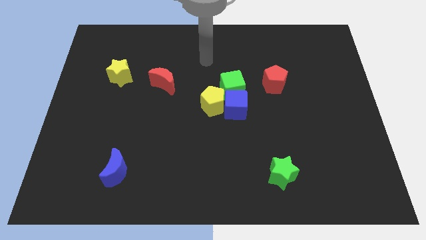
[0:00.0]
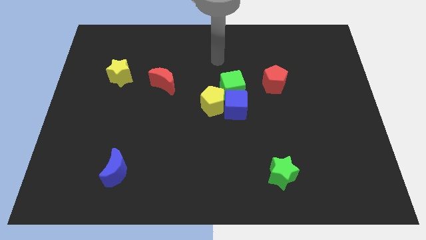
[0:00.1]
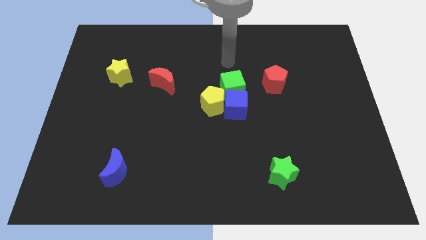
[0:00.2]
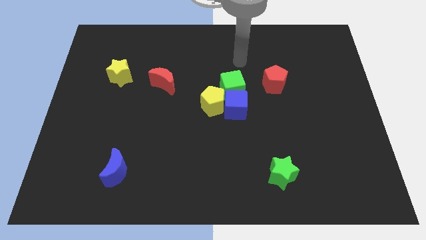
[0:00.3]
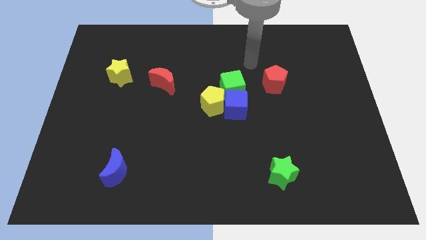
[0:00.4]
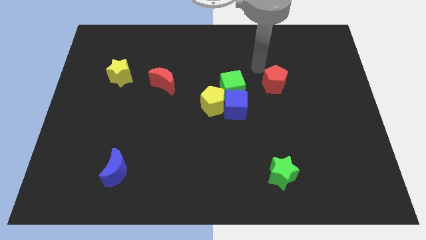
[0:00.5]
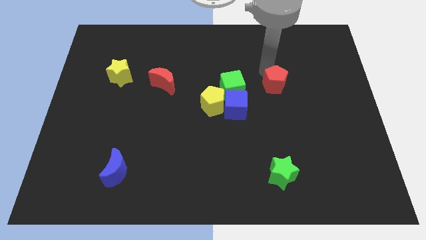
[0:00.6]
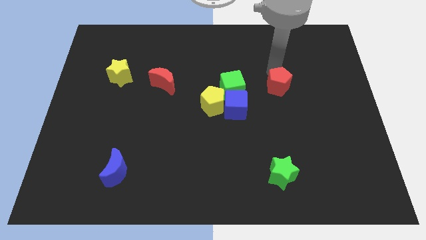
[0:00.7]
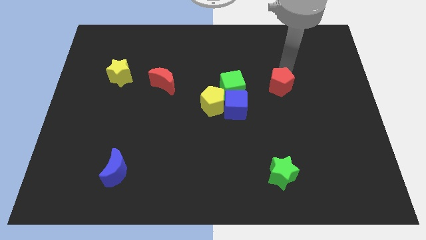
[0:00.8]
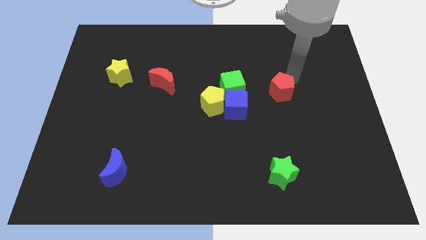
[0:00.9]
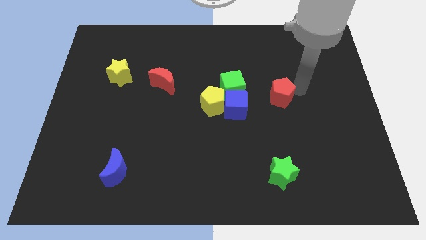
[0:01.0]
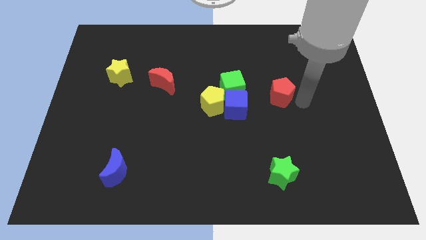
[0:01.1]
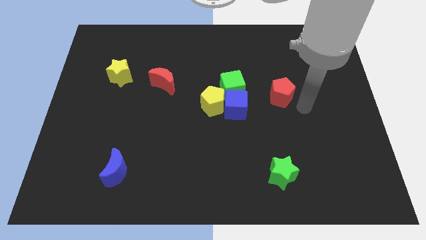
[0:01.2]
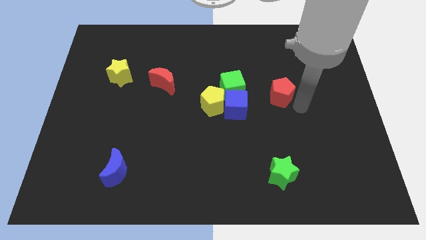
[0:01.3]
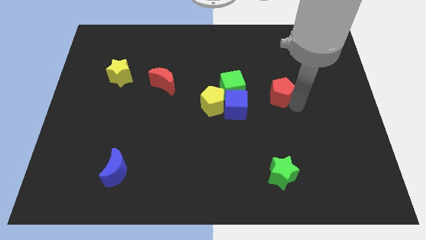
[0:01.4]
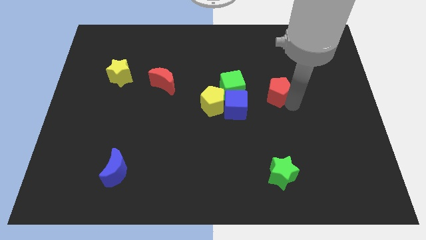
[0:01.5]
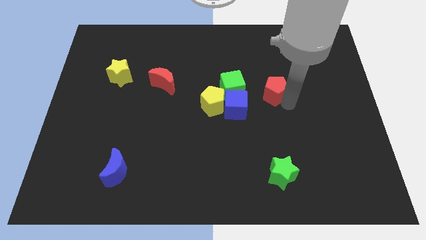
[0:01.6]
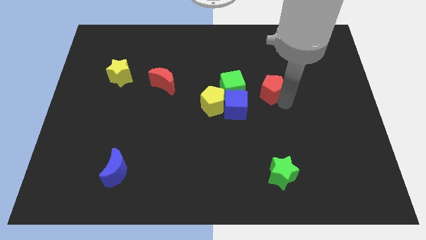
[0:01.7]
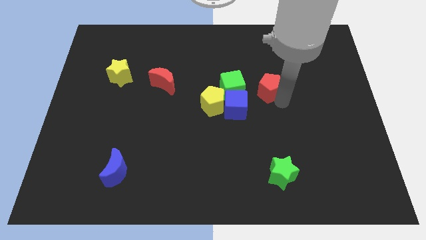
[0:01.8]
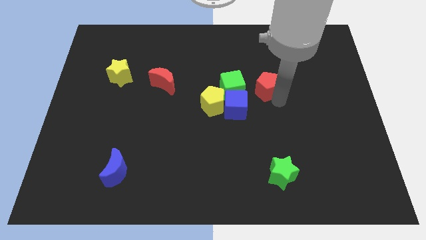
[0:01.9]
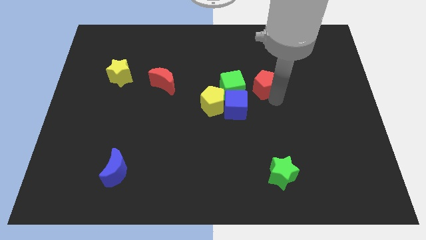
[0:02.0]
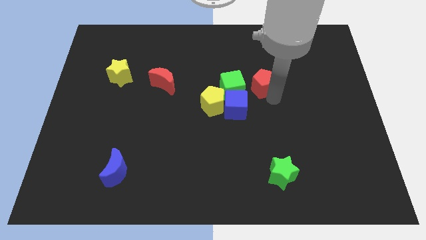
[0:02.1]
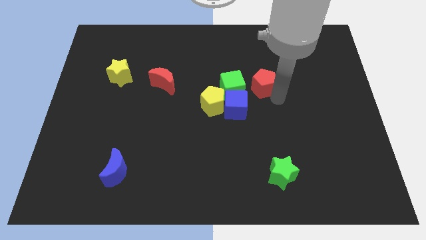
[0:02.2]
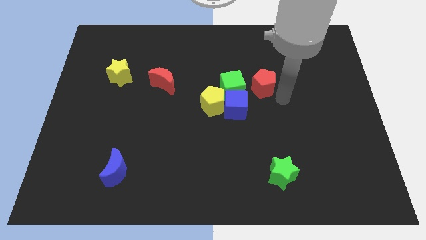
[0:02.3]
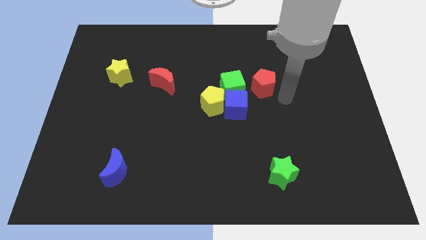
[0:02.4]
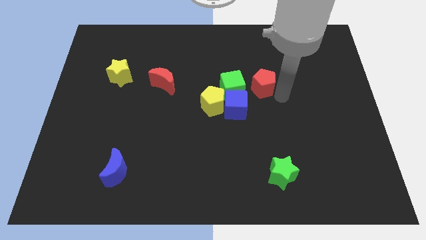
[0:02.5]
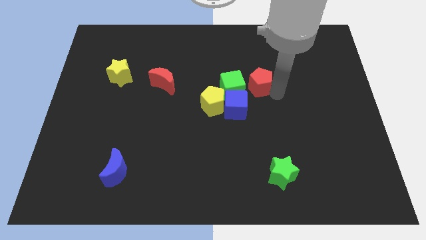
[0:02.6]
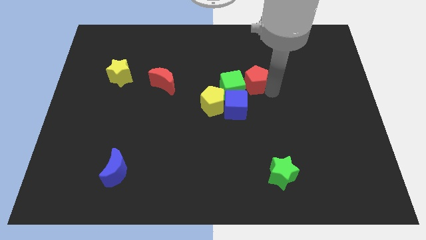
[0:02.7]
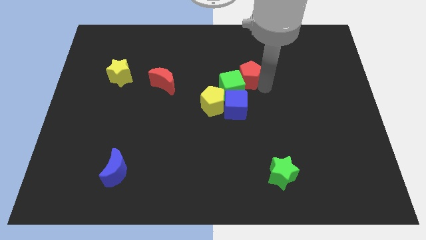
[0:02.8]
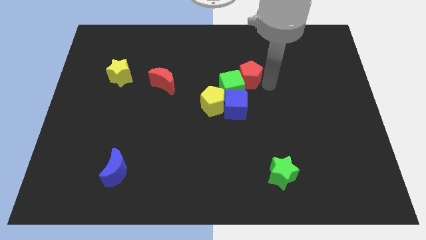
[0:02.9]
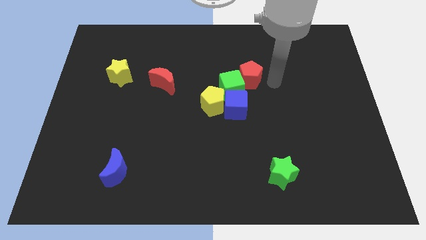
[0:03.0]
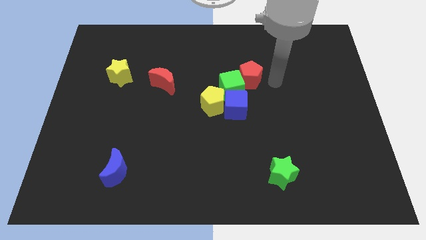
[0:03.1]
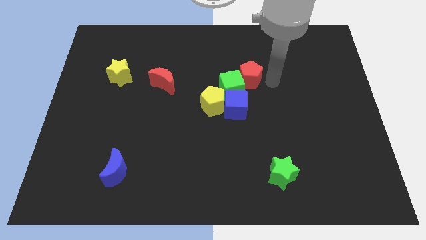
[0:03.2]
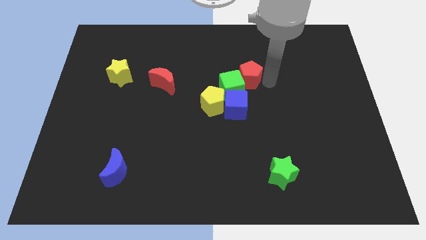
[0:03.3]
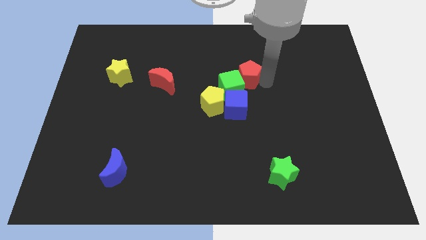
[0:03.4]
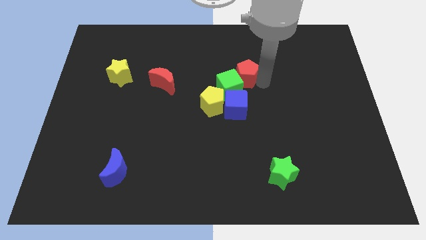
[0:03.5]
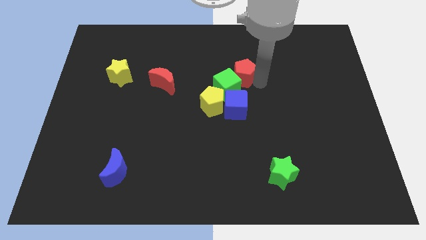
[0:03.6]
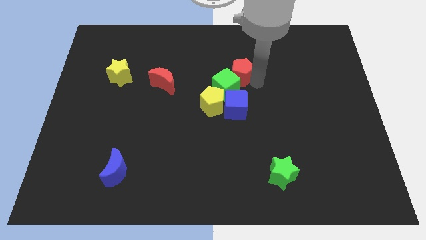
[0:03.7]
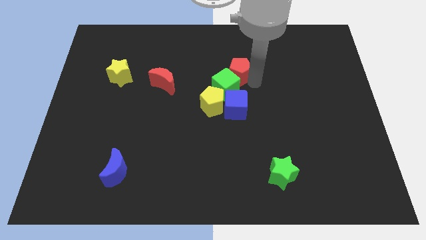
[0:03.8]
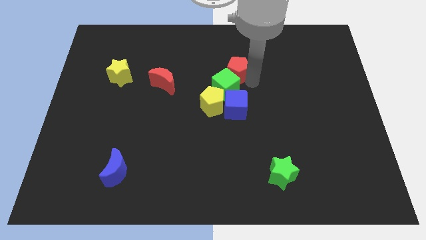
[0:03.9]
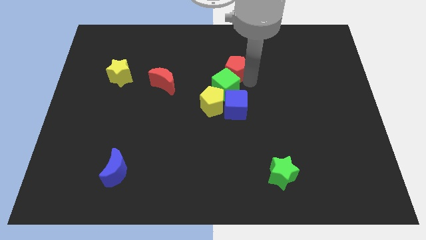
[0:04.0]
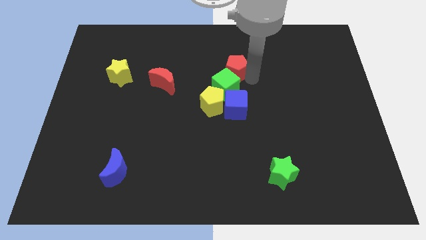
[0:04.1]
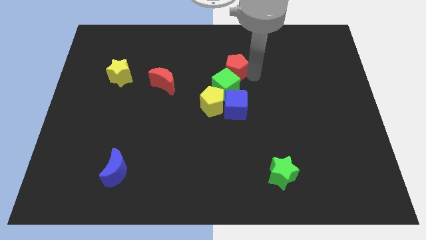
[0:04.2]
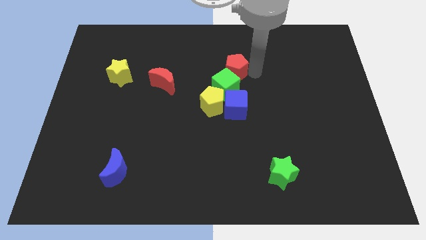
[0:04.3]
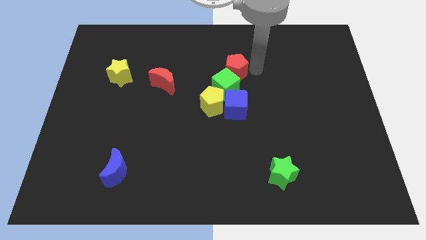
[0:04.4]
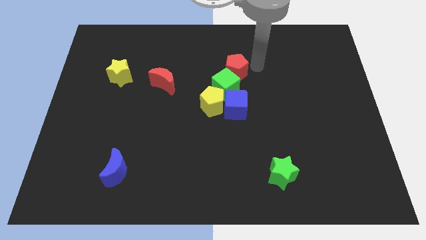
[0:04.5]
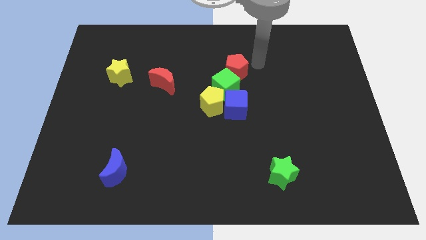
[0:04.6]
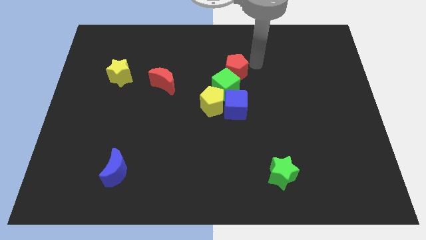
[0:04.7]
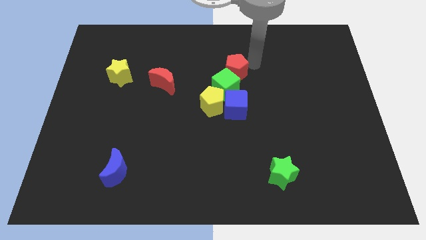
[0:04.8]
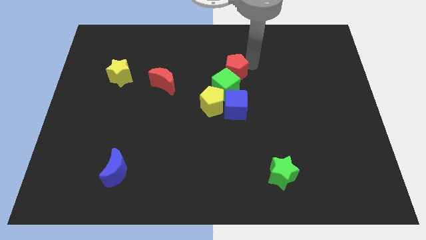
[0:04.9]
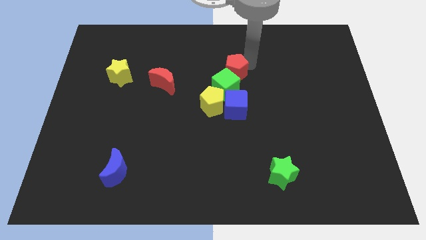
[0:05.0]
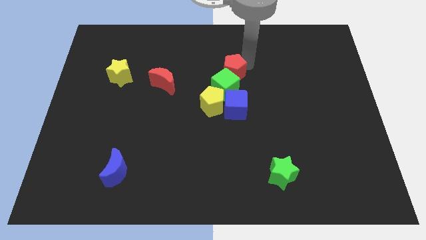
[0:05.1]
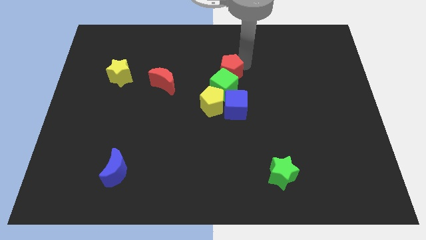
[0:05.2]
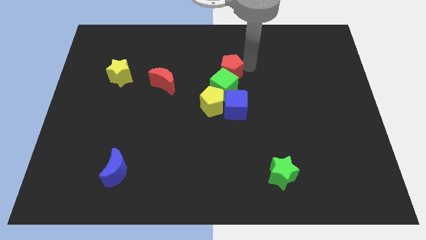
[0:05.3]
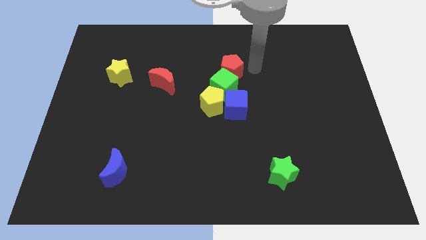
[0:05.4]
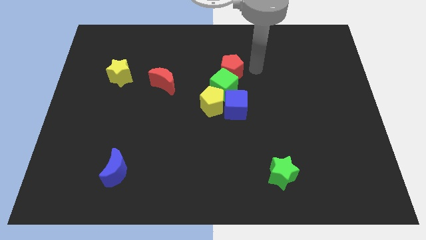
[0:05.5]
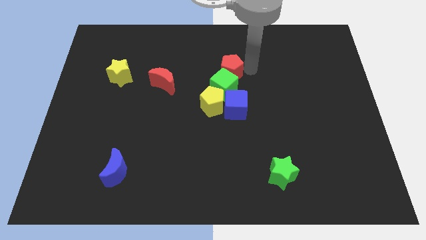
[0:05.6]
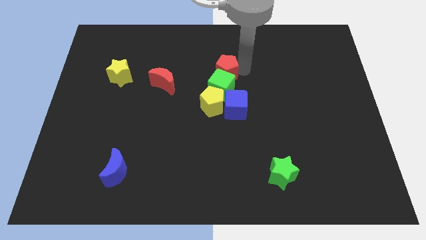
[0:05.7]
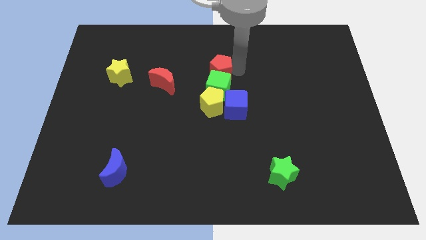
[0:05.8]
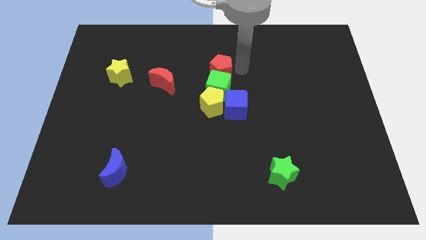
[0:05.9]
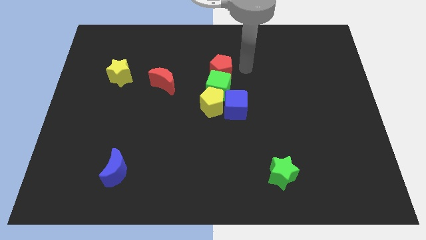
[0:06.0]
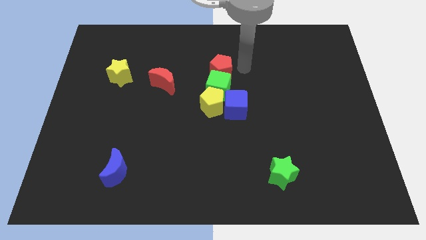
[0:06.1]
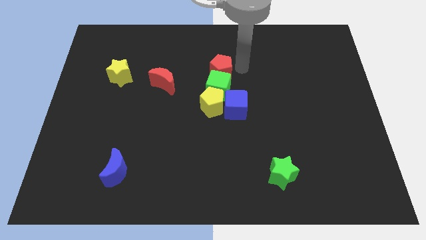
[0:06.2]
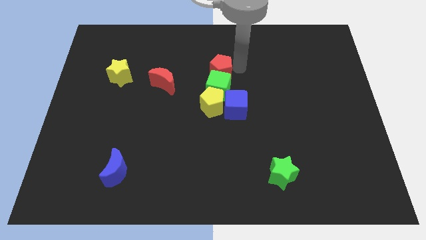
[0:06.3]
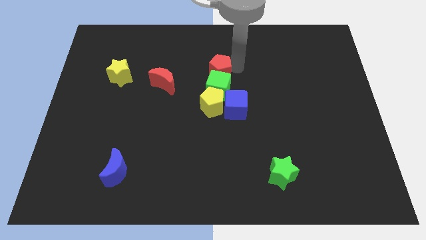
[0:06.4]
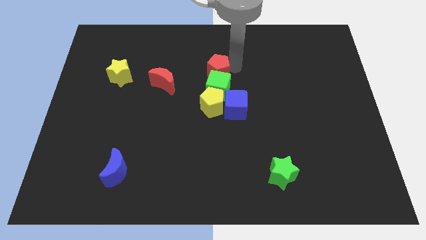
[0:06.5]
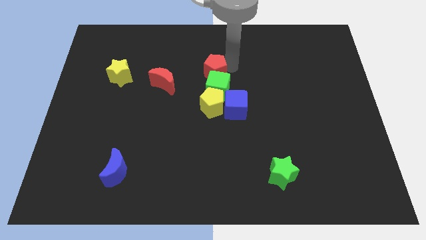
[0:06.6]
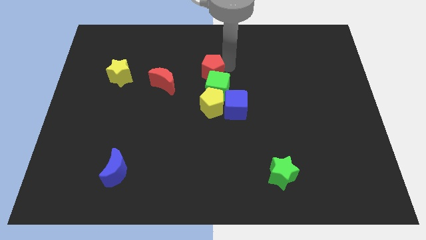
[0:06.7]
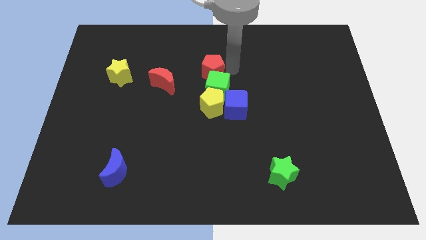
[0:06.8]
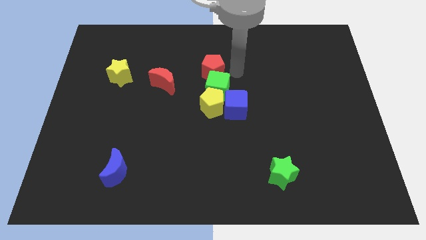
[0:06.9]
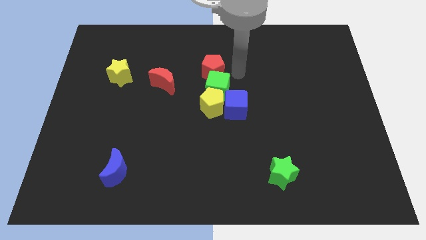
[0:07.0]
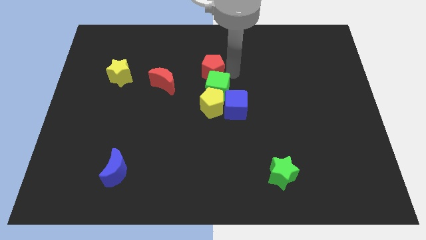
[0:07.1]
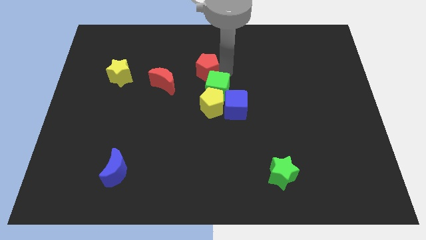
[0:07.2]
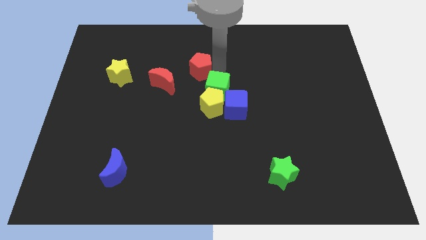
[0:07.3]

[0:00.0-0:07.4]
put the red pentagon to the top right side of the red moon
